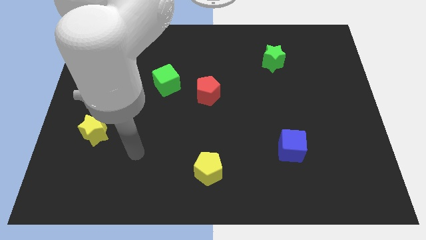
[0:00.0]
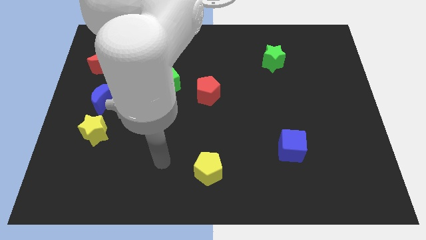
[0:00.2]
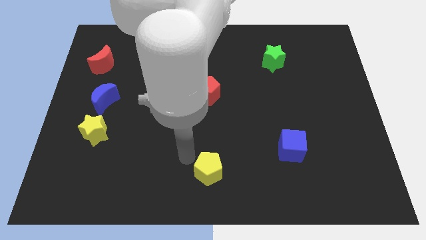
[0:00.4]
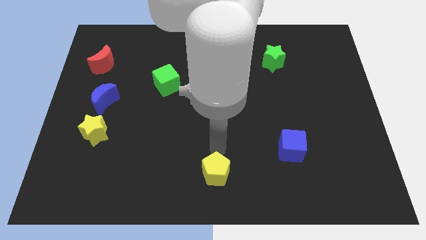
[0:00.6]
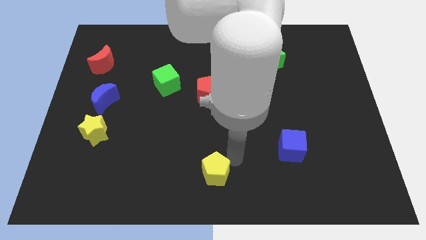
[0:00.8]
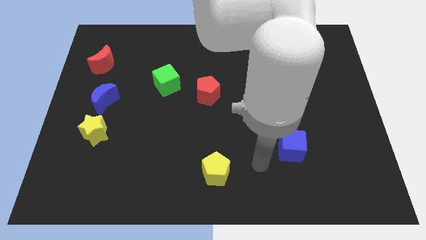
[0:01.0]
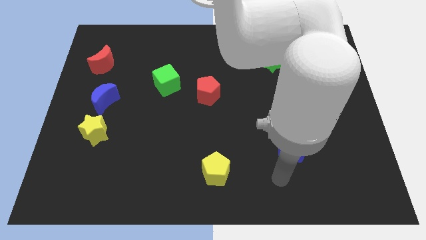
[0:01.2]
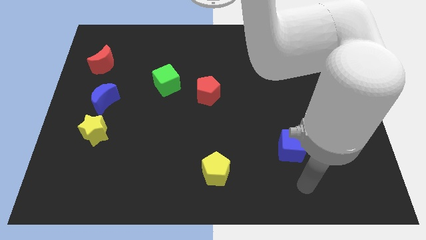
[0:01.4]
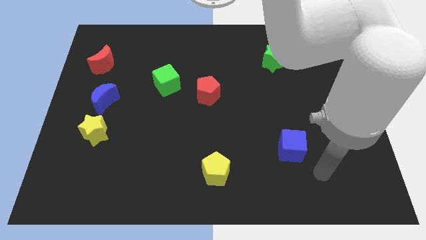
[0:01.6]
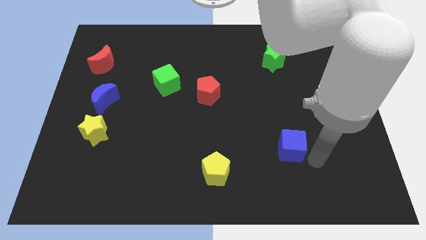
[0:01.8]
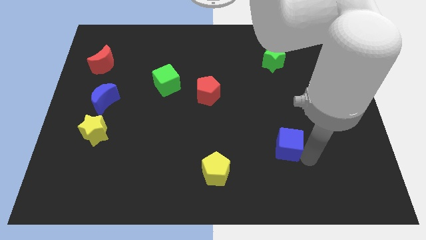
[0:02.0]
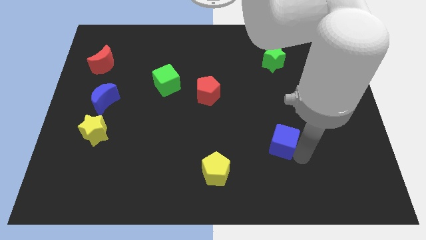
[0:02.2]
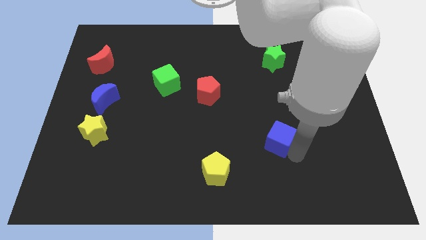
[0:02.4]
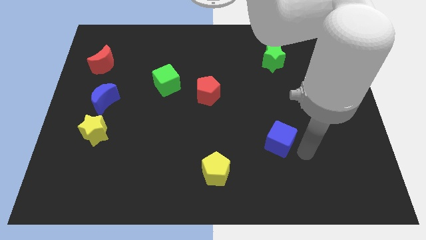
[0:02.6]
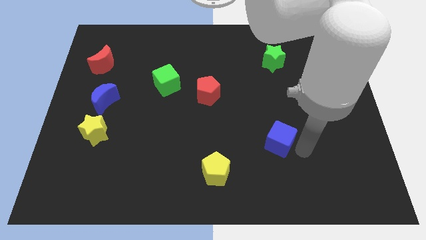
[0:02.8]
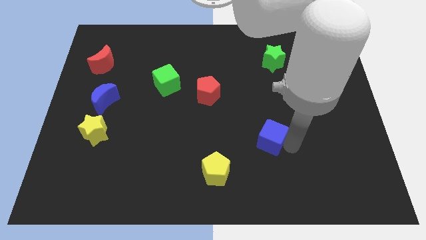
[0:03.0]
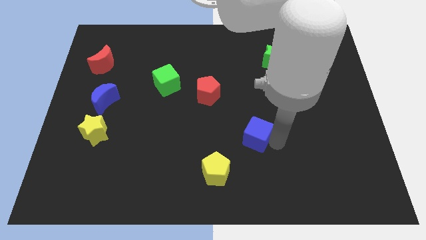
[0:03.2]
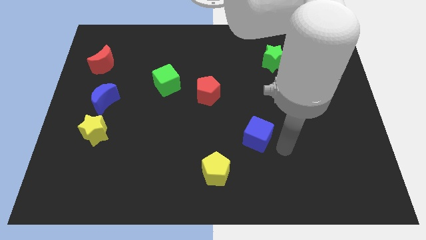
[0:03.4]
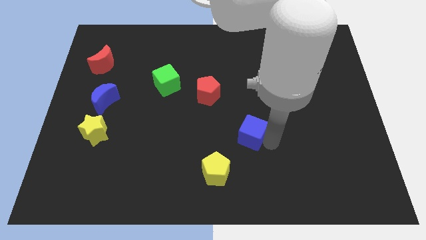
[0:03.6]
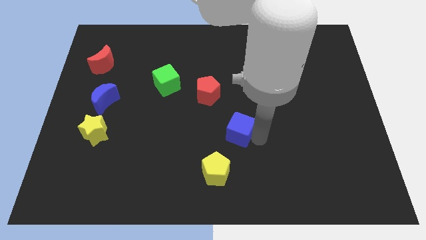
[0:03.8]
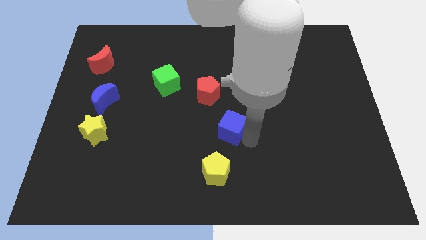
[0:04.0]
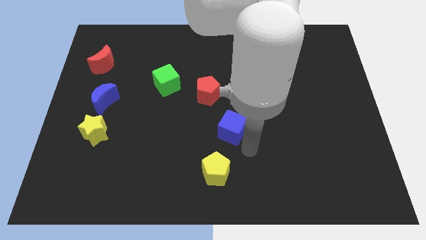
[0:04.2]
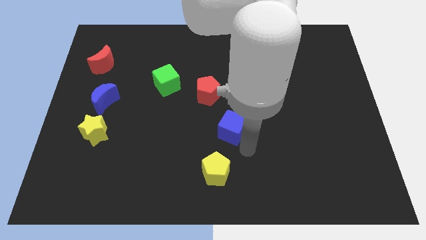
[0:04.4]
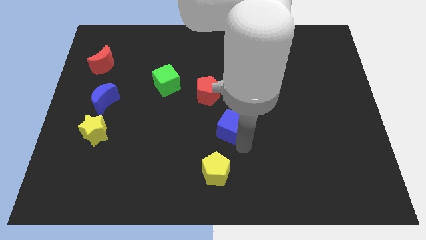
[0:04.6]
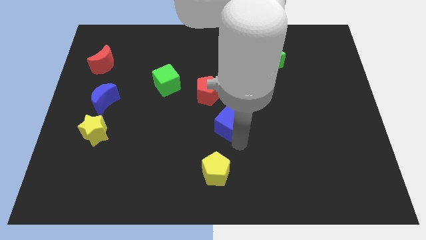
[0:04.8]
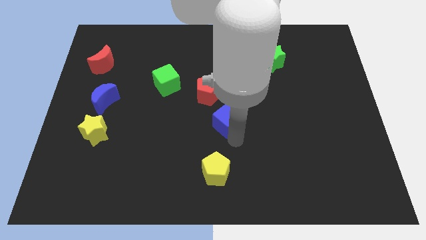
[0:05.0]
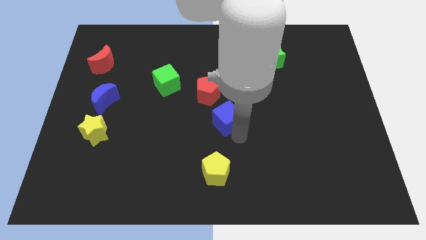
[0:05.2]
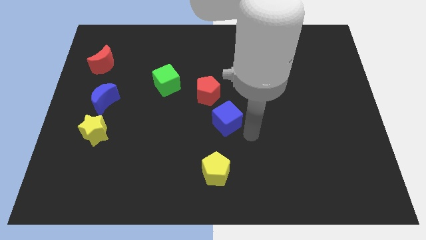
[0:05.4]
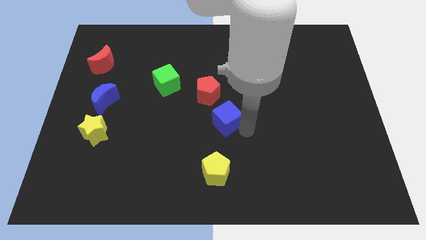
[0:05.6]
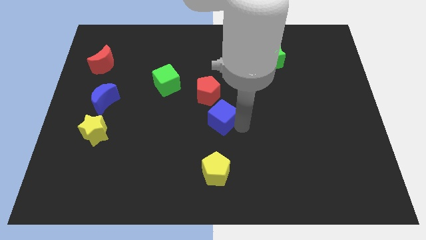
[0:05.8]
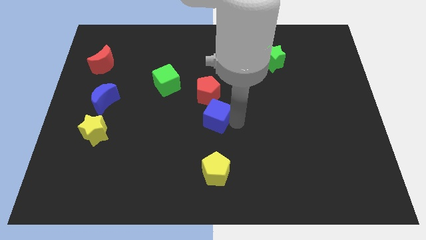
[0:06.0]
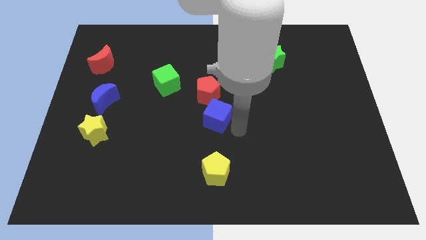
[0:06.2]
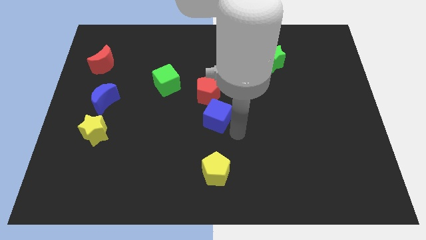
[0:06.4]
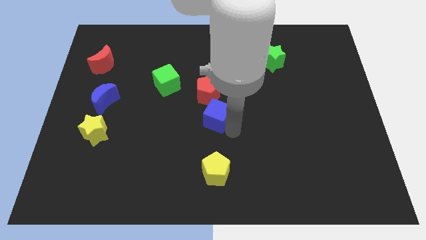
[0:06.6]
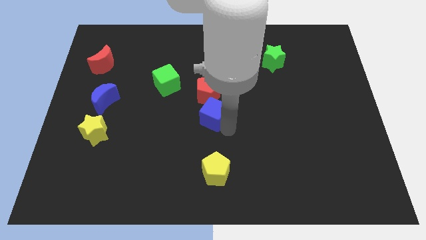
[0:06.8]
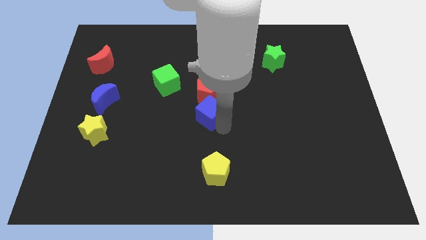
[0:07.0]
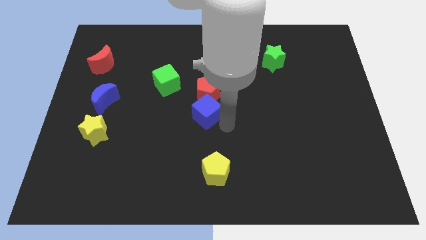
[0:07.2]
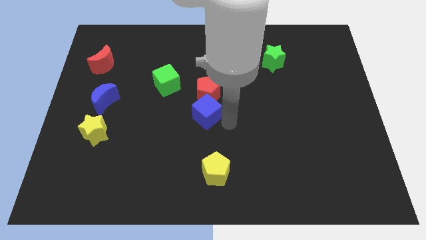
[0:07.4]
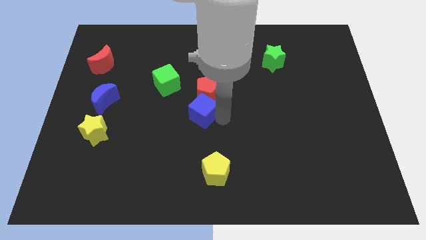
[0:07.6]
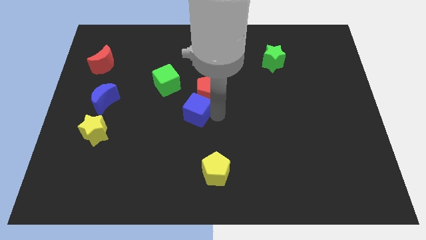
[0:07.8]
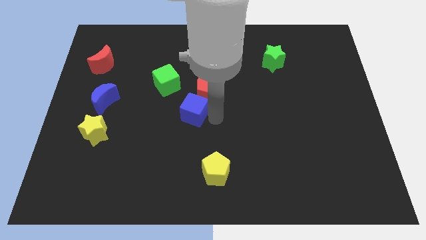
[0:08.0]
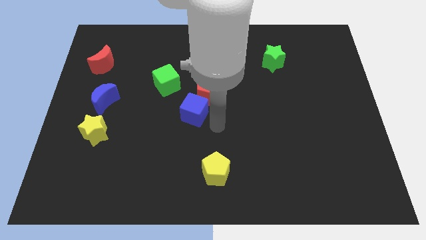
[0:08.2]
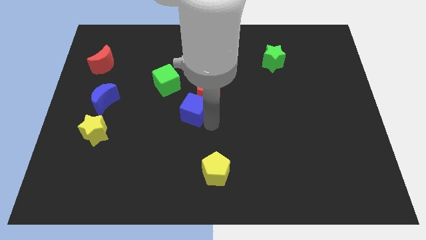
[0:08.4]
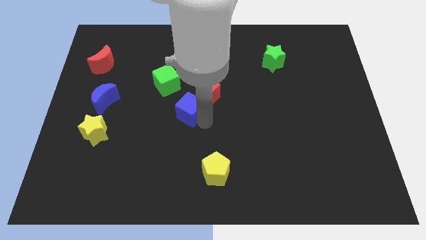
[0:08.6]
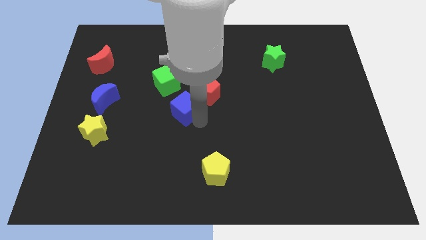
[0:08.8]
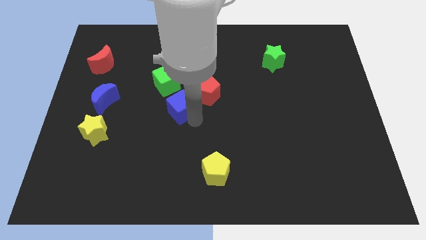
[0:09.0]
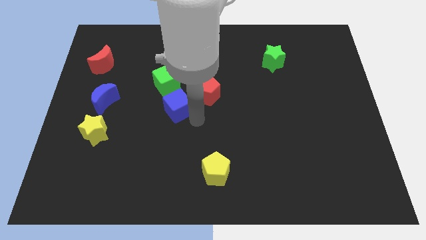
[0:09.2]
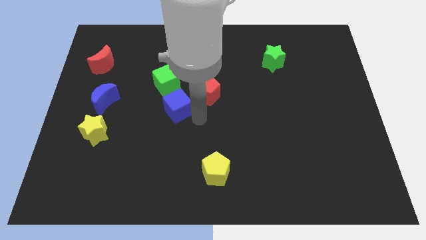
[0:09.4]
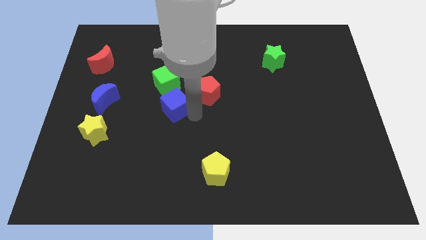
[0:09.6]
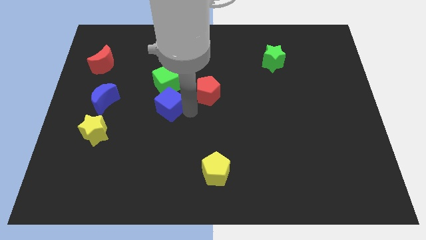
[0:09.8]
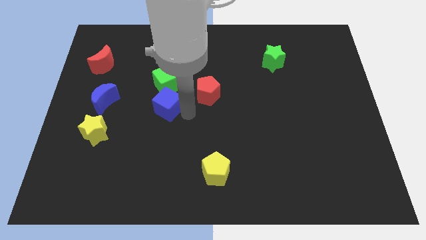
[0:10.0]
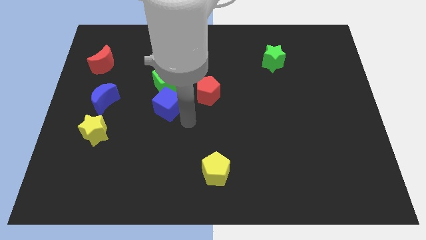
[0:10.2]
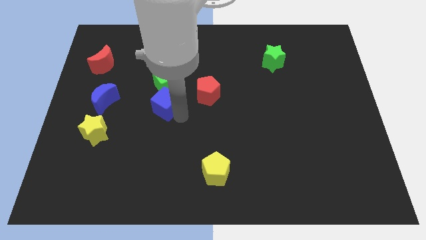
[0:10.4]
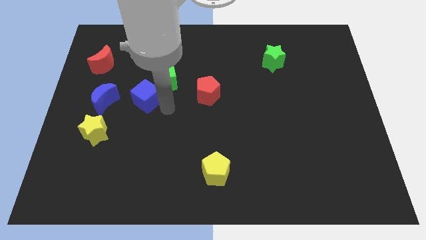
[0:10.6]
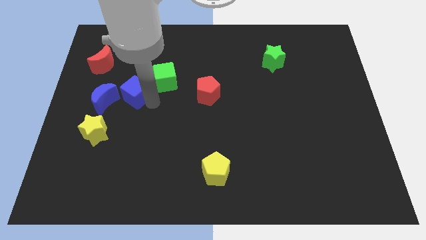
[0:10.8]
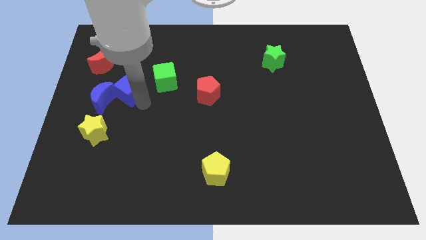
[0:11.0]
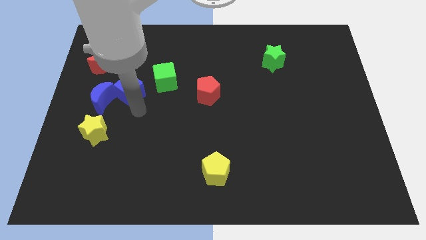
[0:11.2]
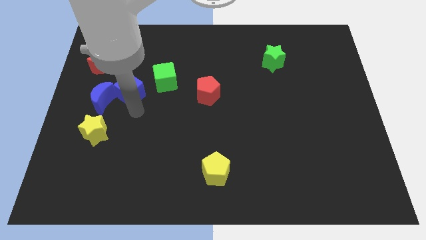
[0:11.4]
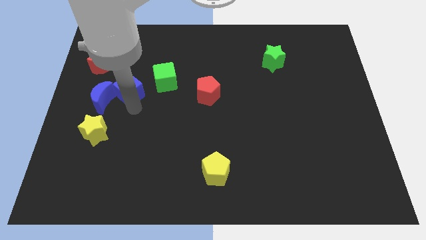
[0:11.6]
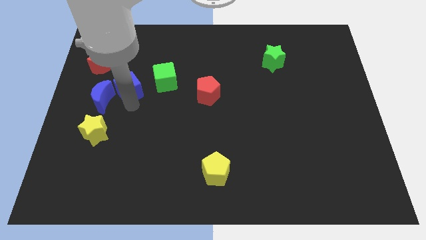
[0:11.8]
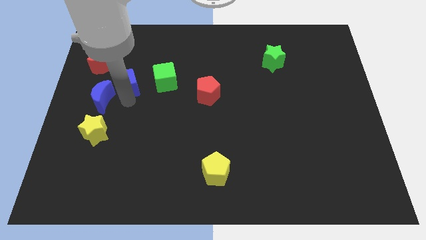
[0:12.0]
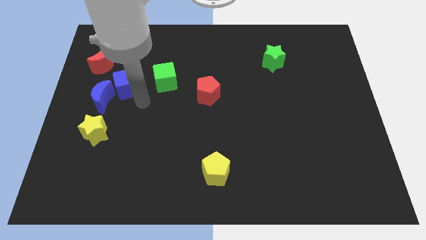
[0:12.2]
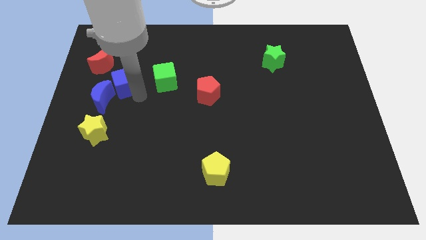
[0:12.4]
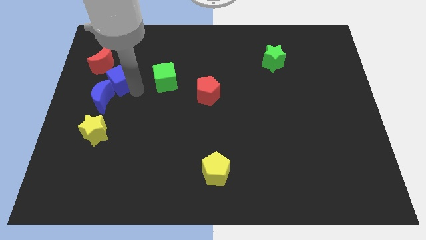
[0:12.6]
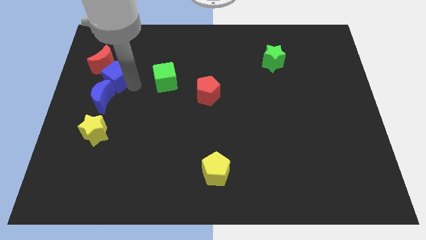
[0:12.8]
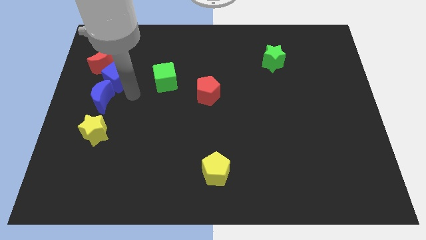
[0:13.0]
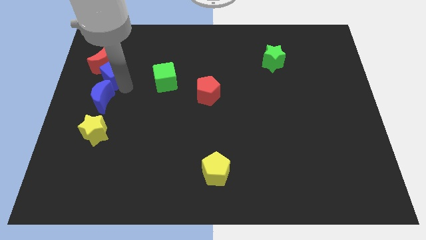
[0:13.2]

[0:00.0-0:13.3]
move the blue cube next to the red moon

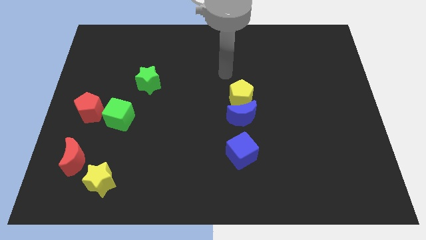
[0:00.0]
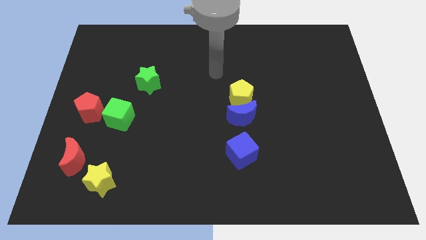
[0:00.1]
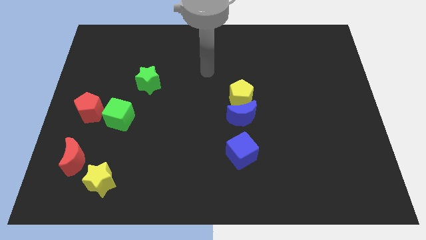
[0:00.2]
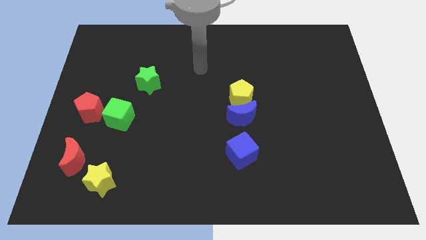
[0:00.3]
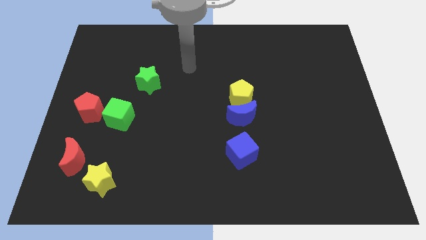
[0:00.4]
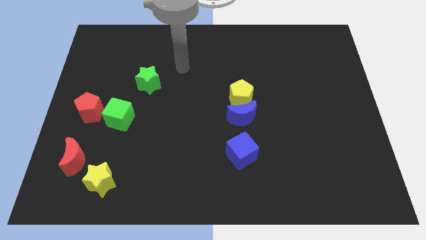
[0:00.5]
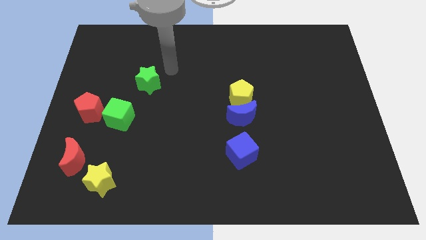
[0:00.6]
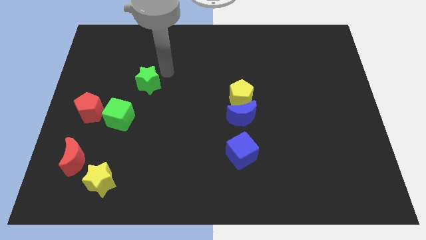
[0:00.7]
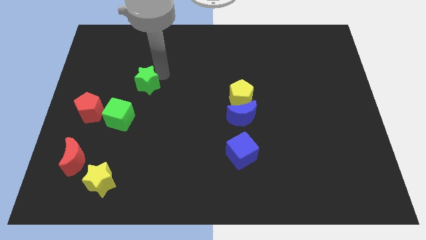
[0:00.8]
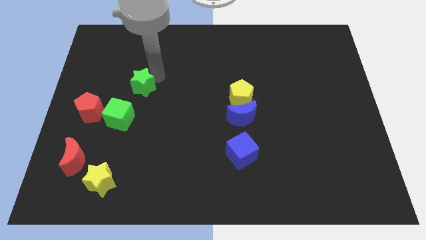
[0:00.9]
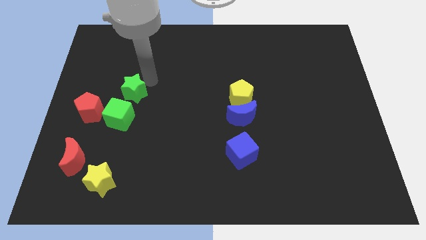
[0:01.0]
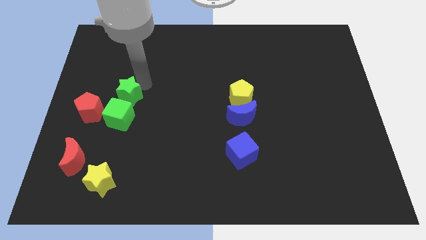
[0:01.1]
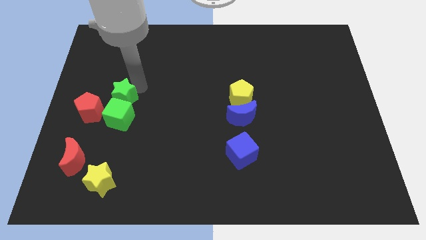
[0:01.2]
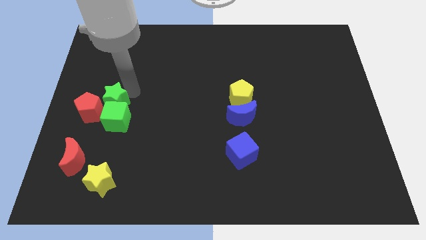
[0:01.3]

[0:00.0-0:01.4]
slide the green star close to the red pentagon
